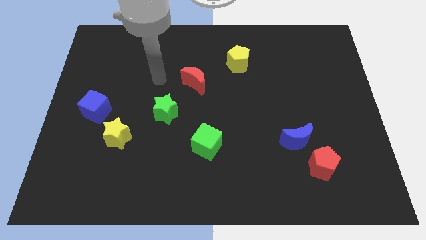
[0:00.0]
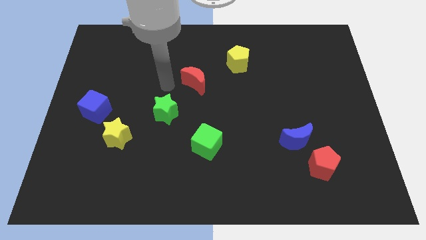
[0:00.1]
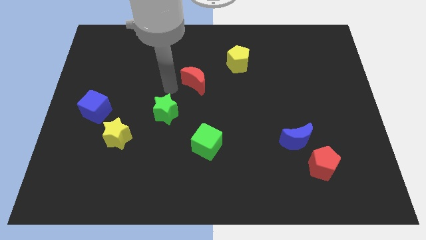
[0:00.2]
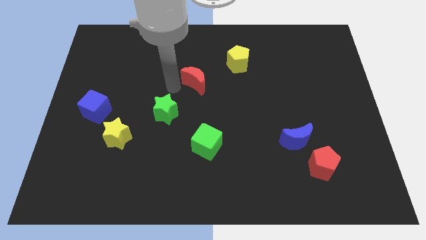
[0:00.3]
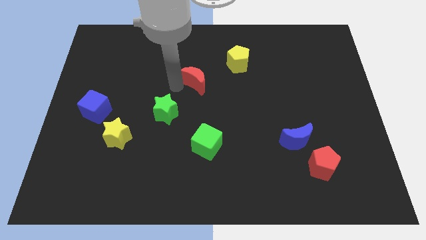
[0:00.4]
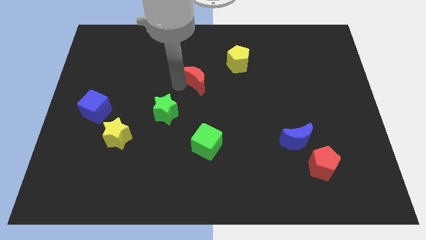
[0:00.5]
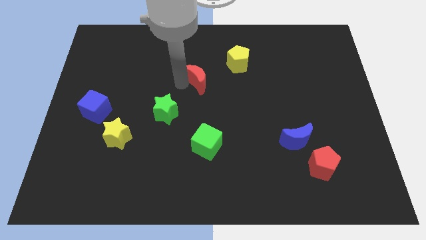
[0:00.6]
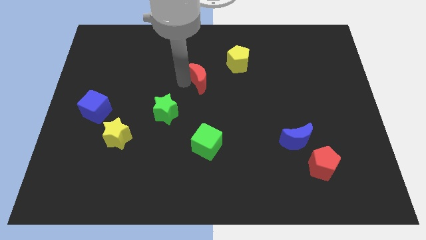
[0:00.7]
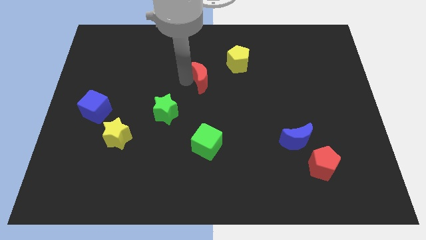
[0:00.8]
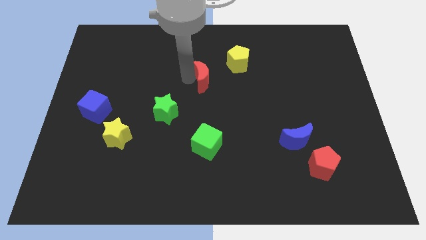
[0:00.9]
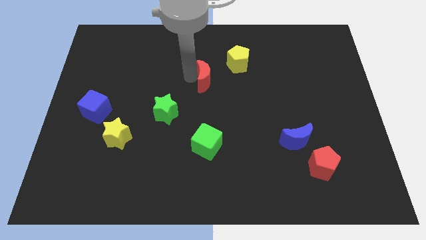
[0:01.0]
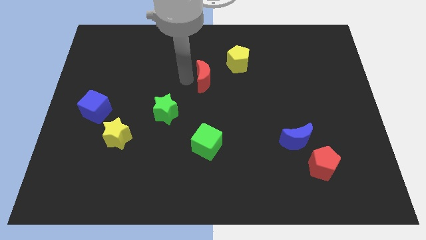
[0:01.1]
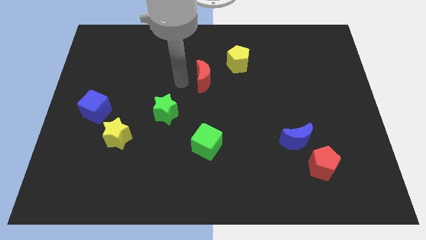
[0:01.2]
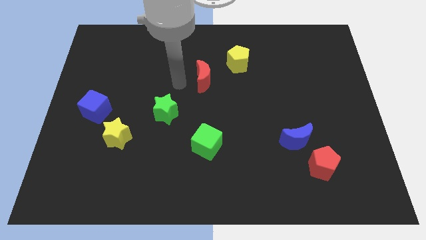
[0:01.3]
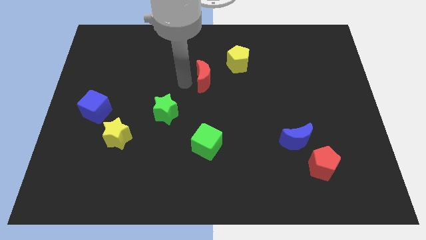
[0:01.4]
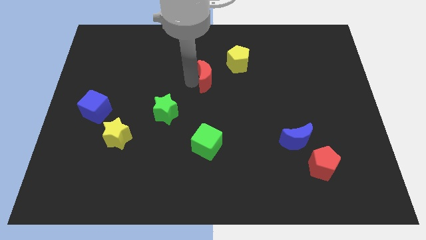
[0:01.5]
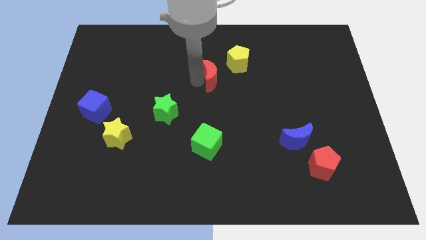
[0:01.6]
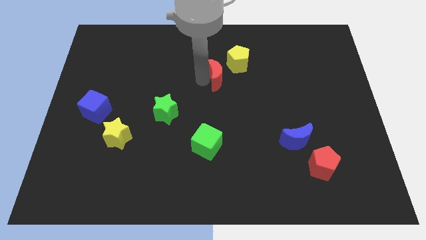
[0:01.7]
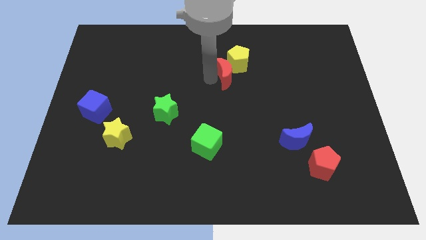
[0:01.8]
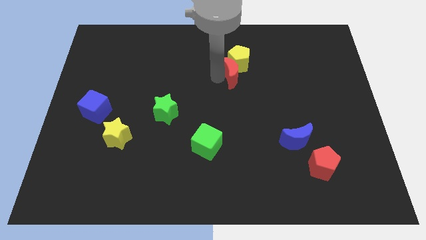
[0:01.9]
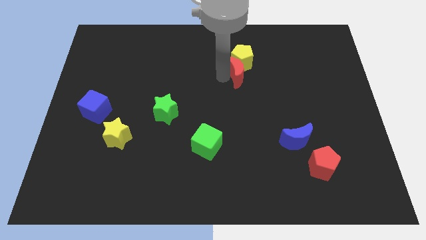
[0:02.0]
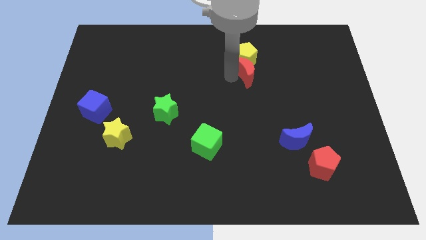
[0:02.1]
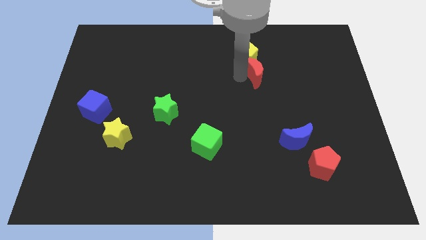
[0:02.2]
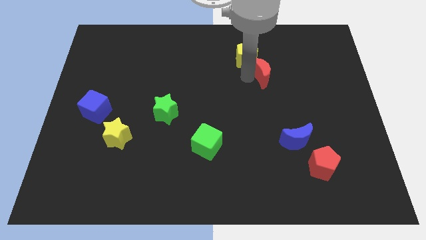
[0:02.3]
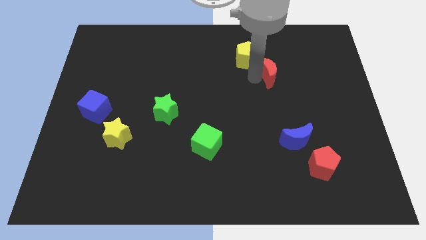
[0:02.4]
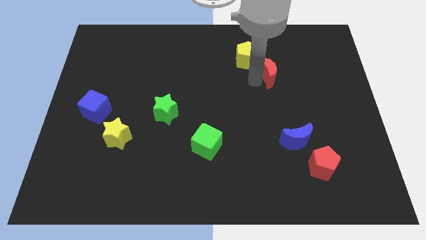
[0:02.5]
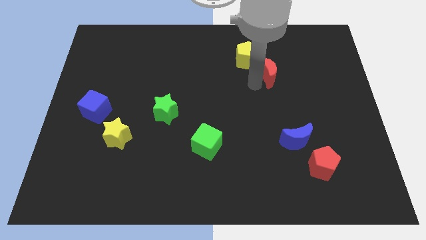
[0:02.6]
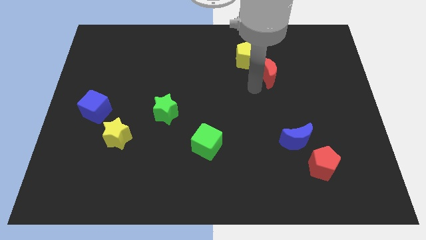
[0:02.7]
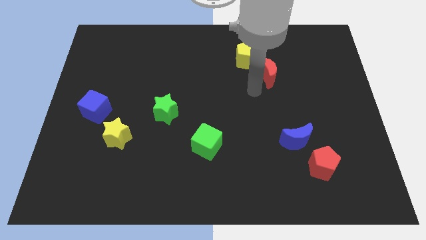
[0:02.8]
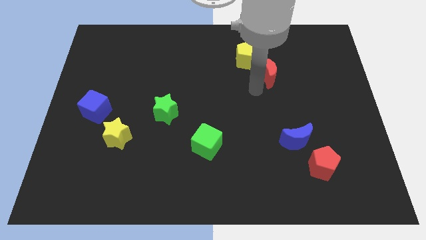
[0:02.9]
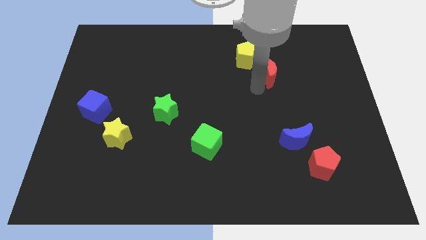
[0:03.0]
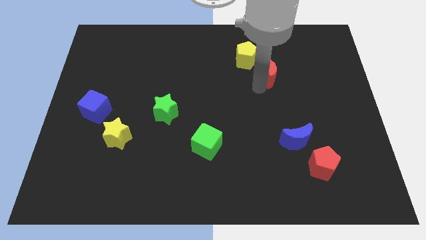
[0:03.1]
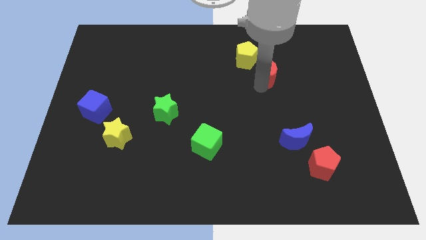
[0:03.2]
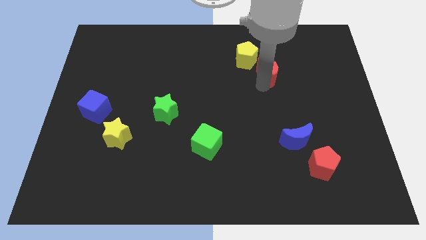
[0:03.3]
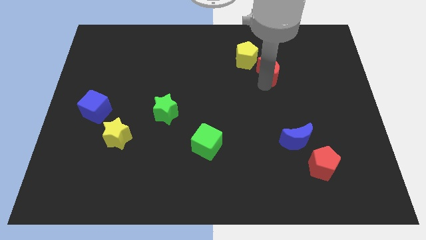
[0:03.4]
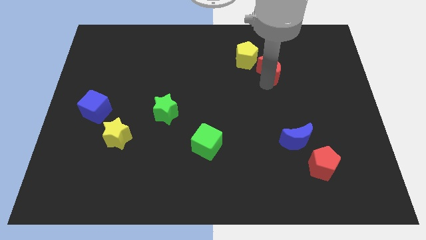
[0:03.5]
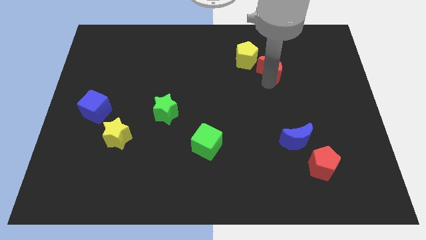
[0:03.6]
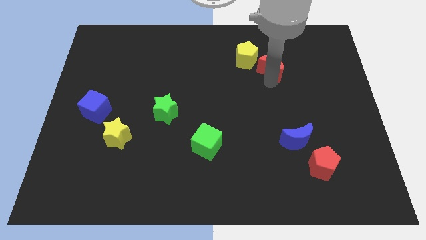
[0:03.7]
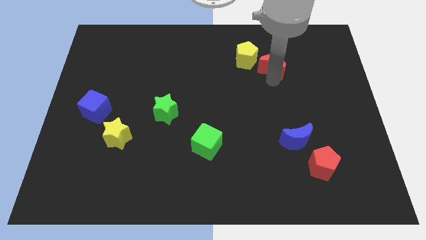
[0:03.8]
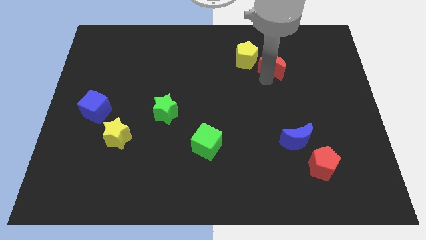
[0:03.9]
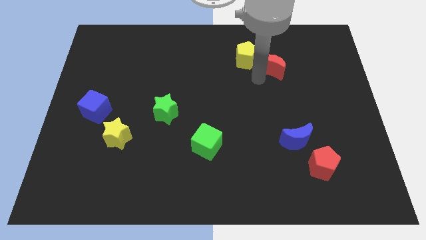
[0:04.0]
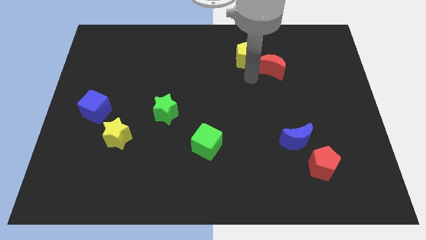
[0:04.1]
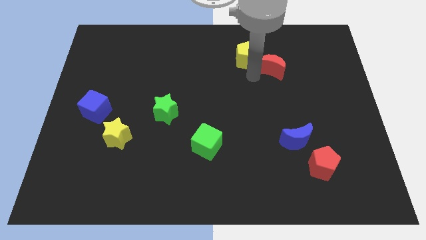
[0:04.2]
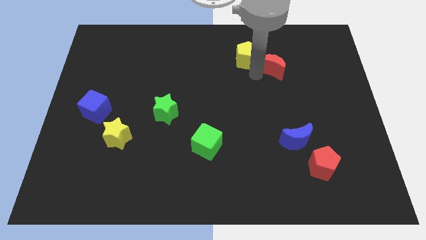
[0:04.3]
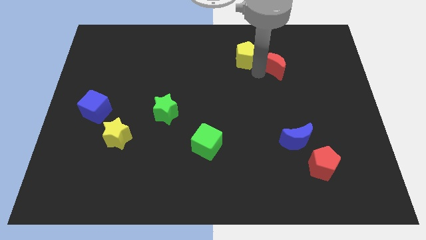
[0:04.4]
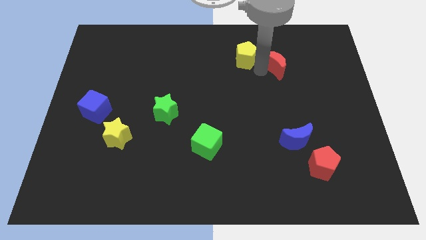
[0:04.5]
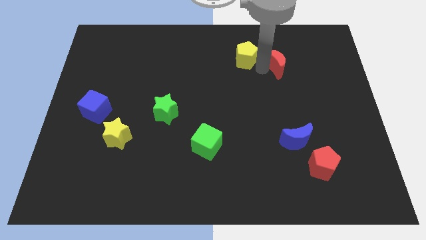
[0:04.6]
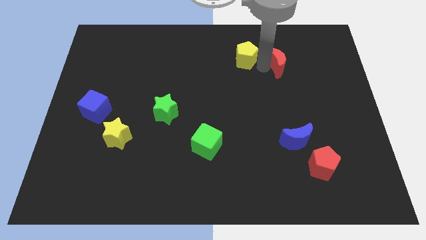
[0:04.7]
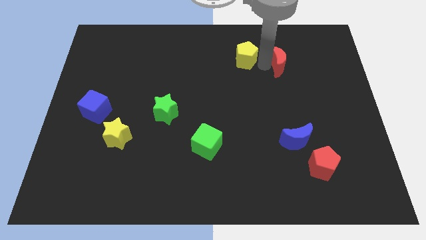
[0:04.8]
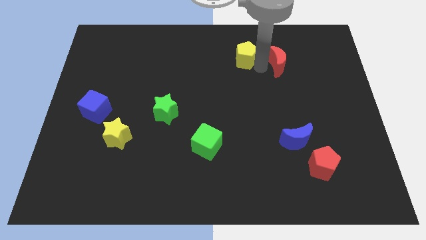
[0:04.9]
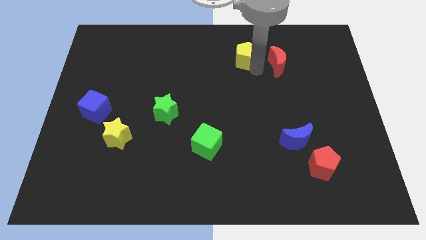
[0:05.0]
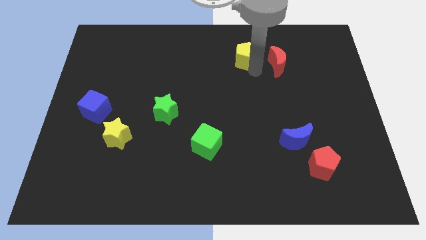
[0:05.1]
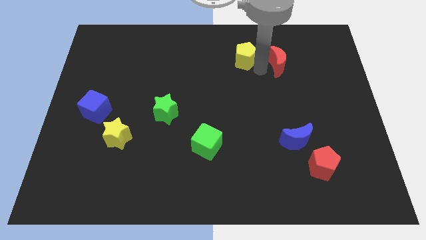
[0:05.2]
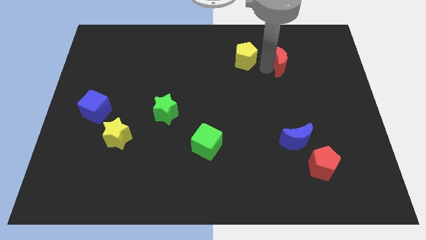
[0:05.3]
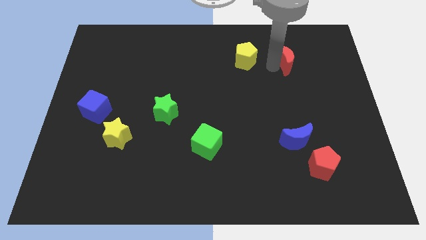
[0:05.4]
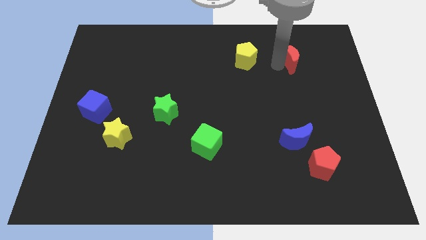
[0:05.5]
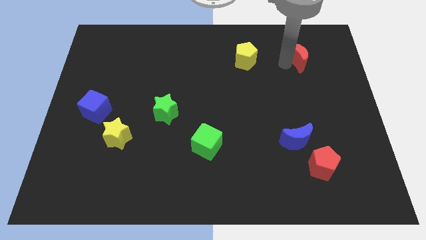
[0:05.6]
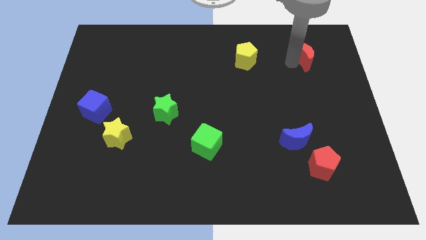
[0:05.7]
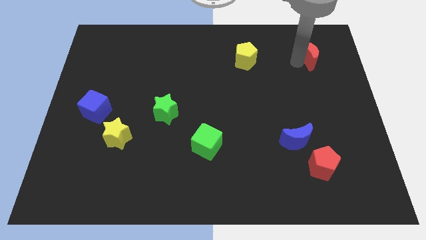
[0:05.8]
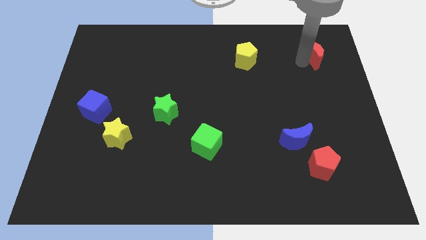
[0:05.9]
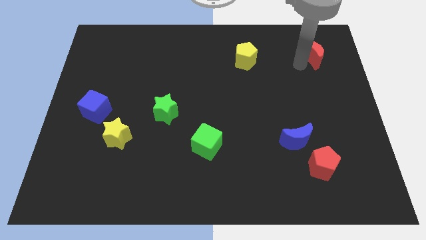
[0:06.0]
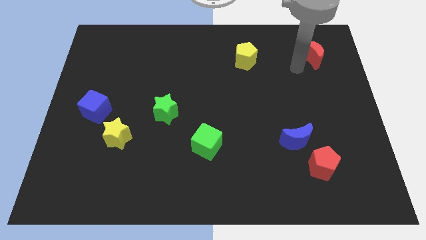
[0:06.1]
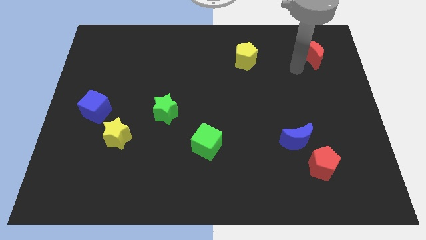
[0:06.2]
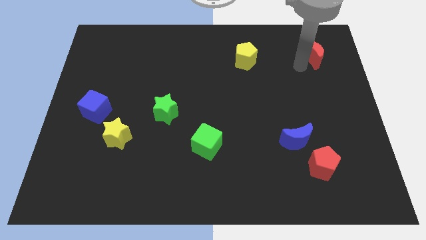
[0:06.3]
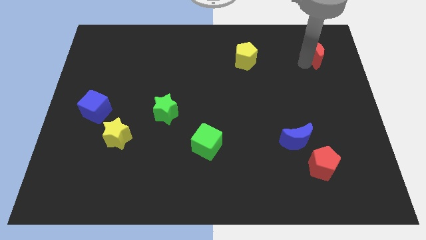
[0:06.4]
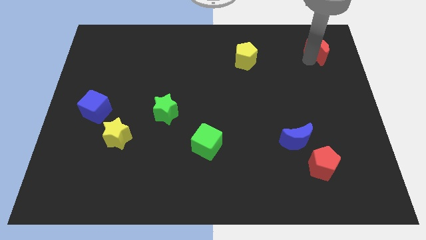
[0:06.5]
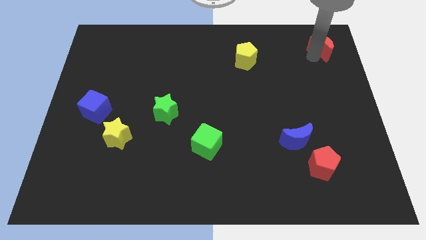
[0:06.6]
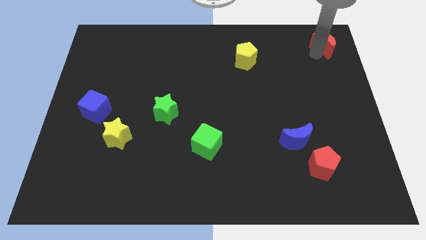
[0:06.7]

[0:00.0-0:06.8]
slide the red moon to the top right of the board
